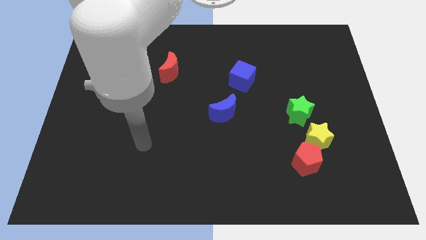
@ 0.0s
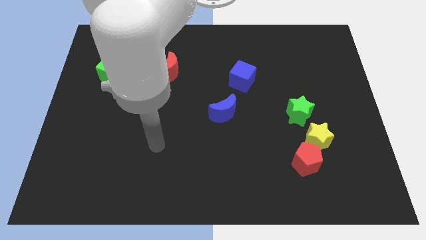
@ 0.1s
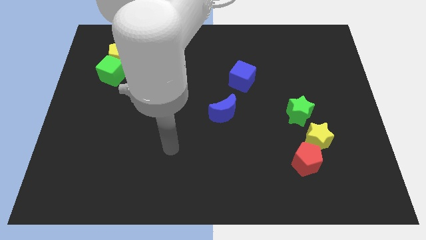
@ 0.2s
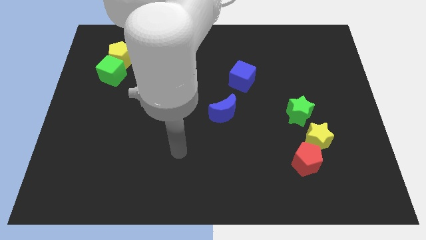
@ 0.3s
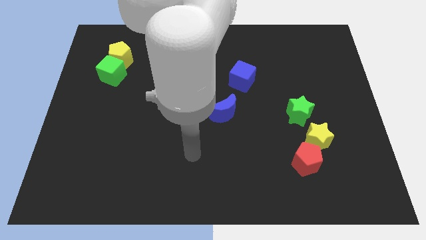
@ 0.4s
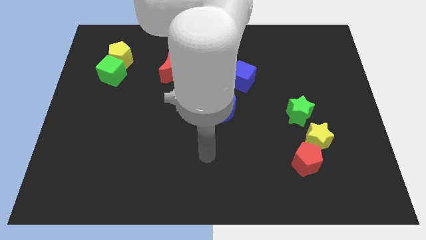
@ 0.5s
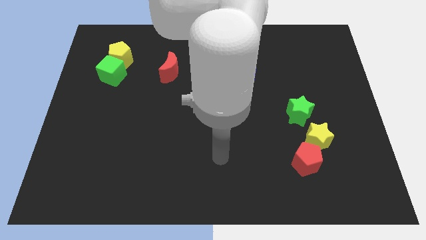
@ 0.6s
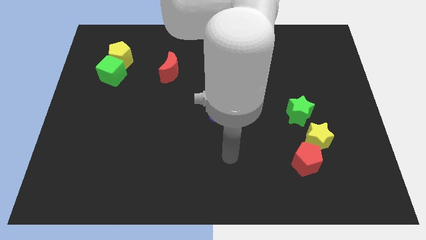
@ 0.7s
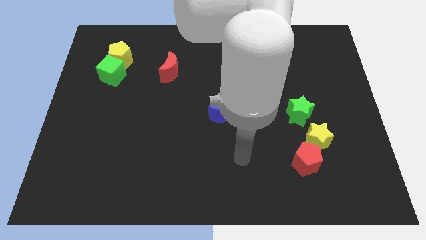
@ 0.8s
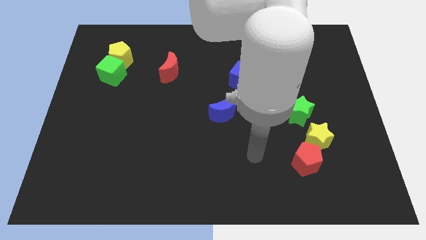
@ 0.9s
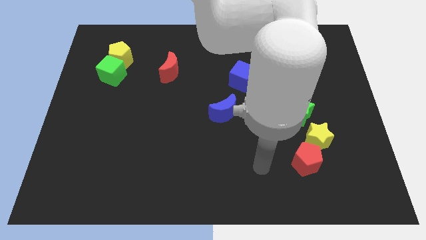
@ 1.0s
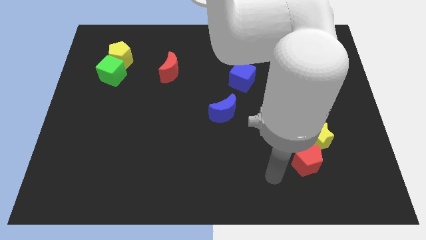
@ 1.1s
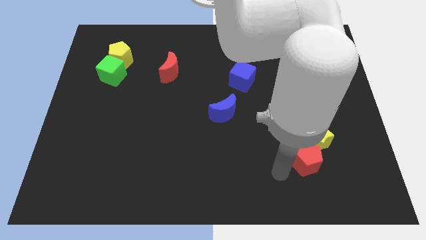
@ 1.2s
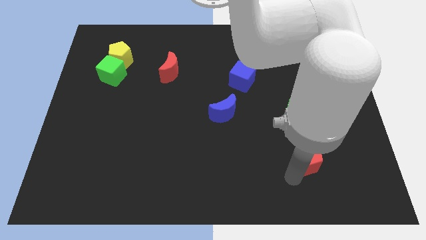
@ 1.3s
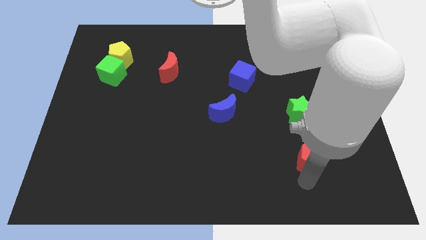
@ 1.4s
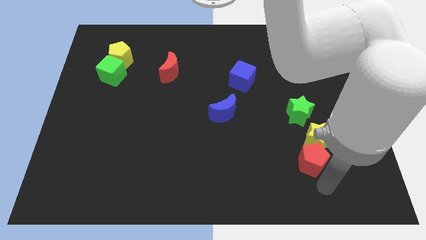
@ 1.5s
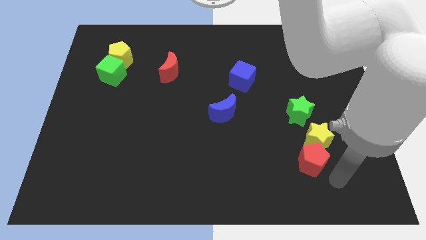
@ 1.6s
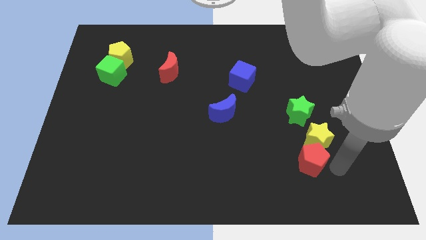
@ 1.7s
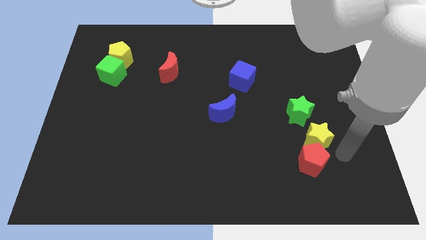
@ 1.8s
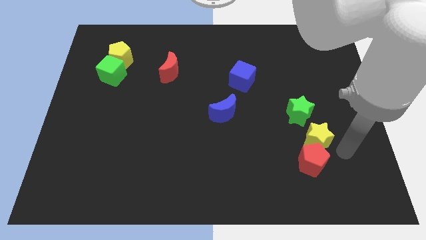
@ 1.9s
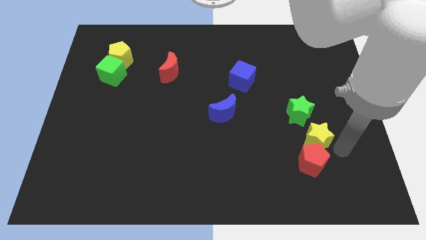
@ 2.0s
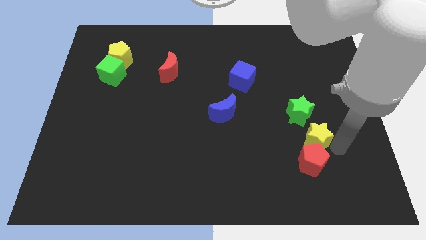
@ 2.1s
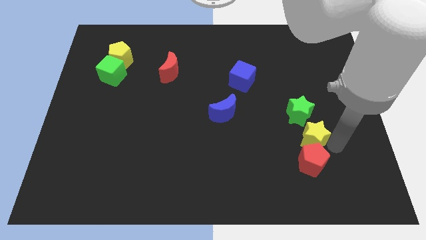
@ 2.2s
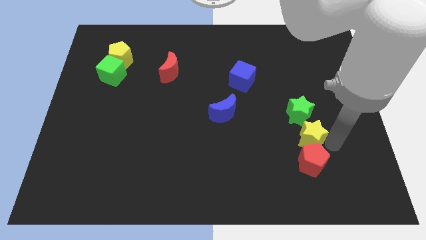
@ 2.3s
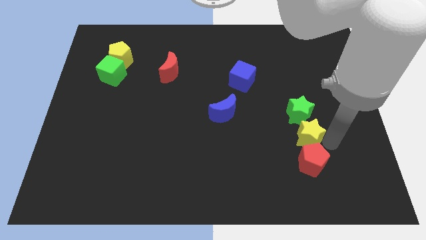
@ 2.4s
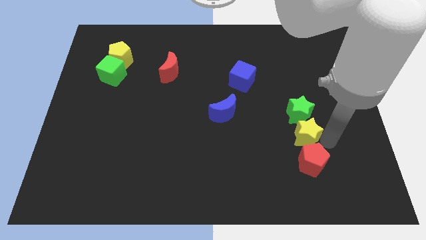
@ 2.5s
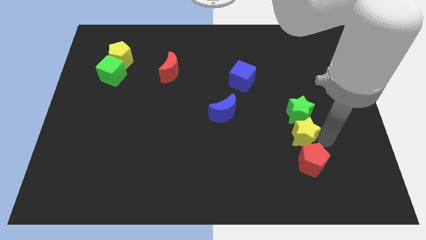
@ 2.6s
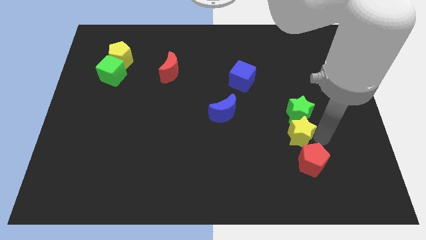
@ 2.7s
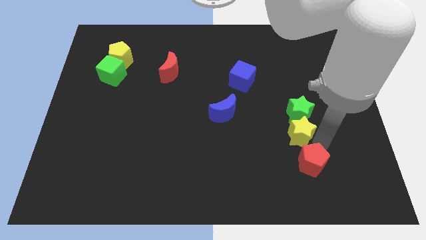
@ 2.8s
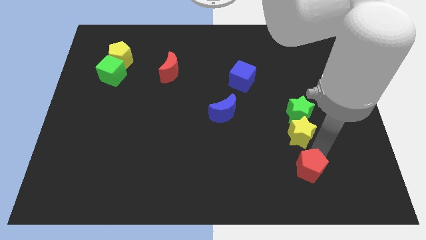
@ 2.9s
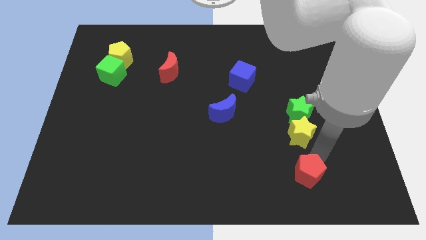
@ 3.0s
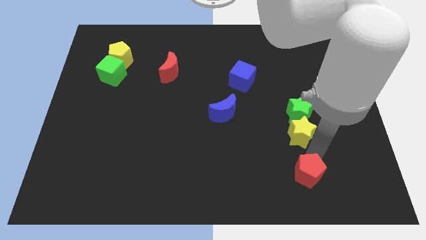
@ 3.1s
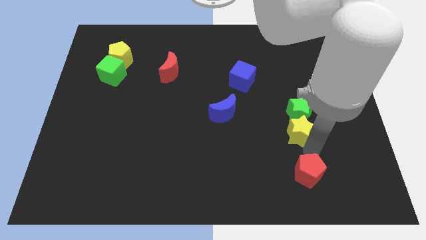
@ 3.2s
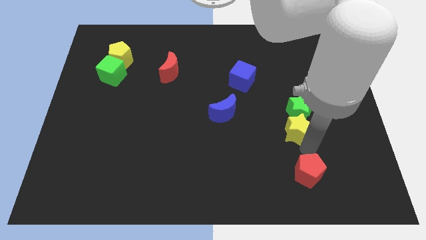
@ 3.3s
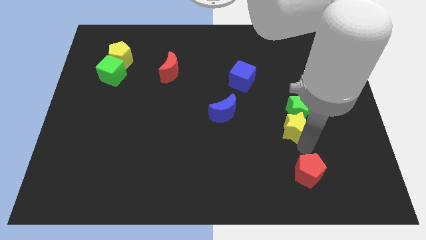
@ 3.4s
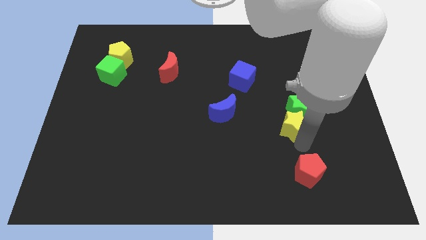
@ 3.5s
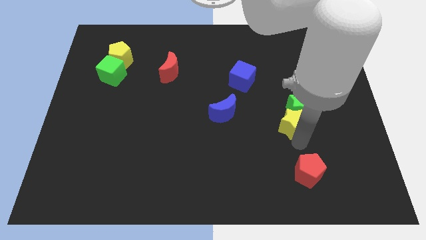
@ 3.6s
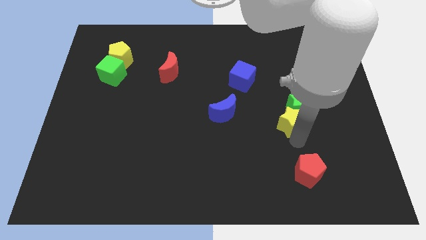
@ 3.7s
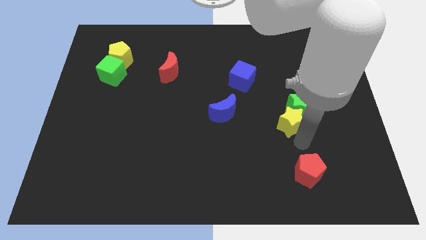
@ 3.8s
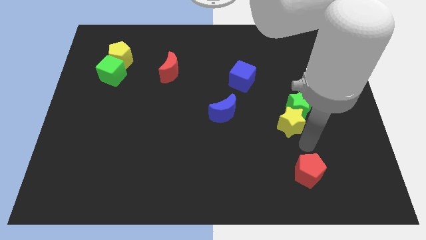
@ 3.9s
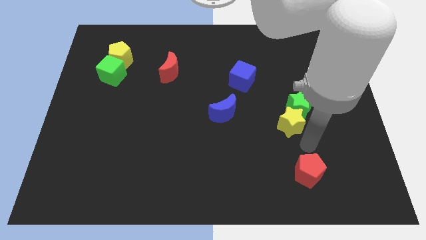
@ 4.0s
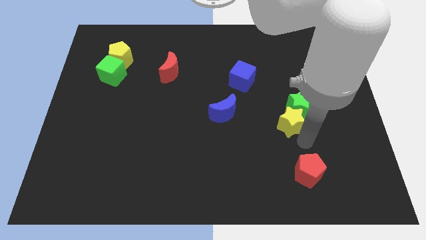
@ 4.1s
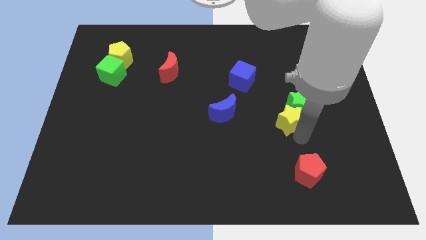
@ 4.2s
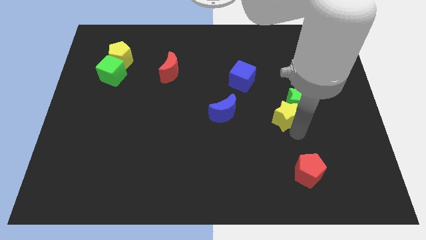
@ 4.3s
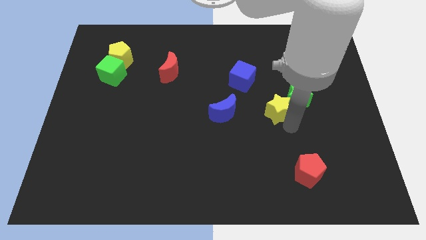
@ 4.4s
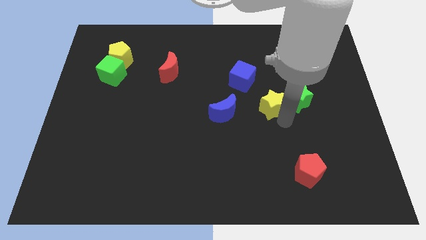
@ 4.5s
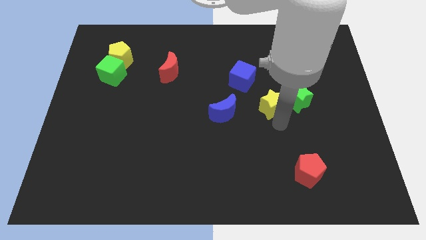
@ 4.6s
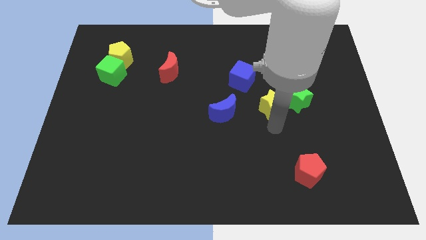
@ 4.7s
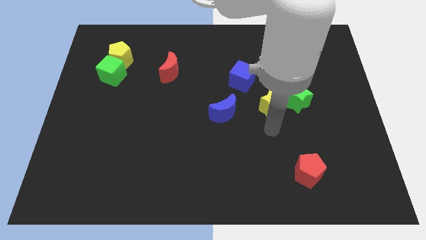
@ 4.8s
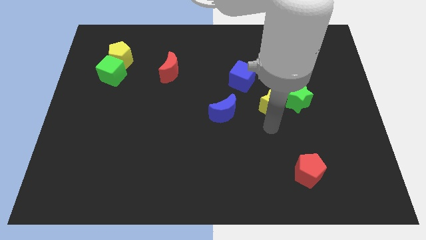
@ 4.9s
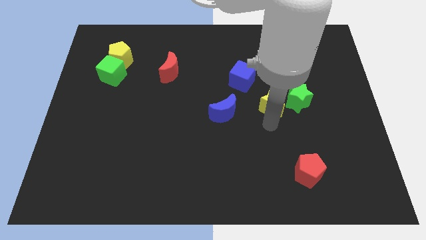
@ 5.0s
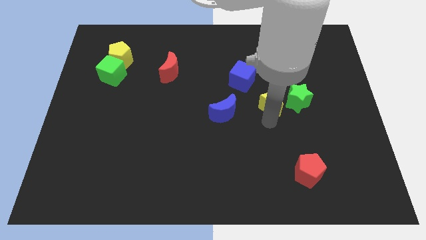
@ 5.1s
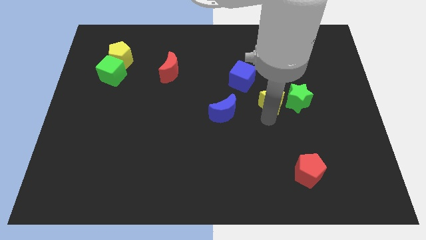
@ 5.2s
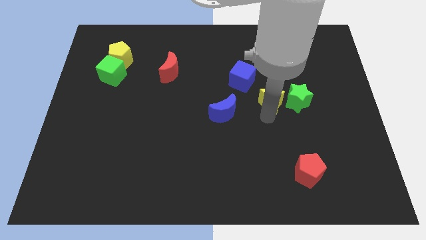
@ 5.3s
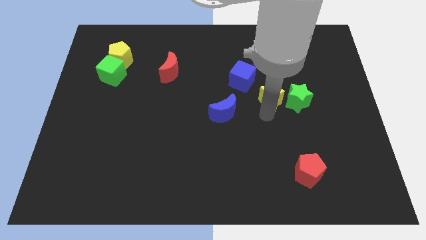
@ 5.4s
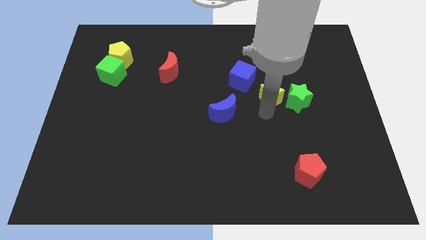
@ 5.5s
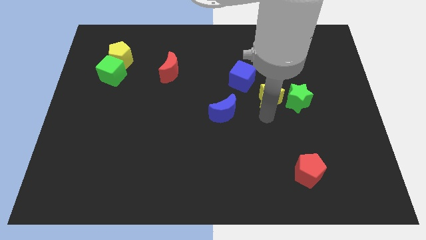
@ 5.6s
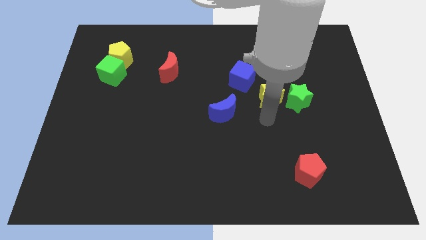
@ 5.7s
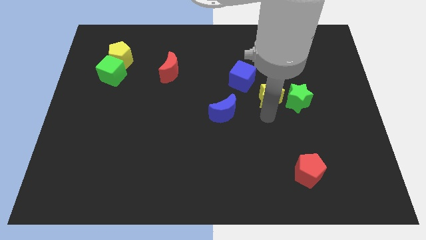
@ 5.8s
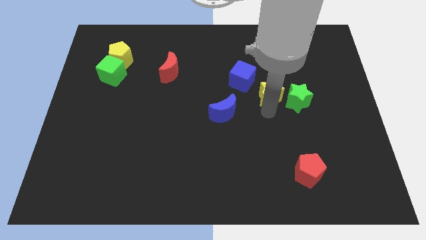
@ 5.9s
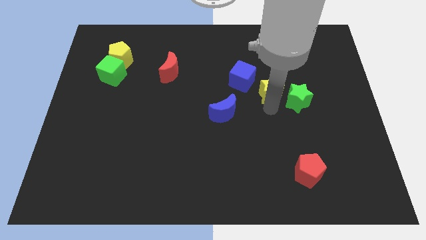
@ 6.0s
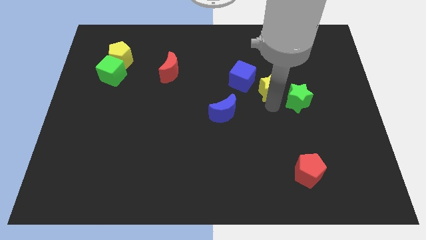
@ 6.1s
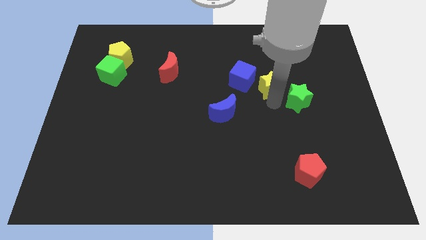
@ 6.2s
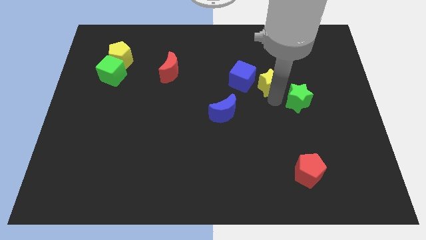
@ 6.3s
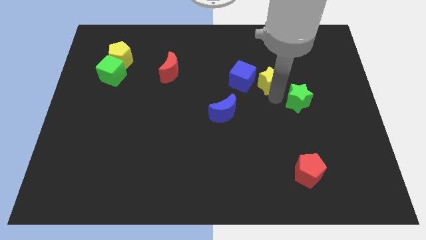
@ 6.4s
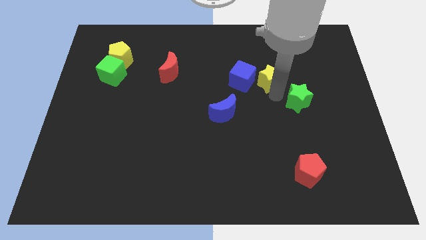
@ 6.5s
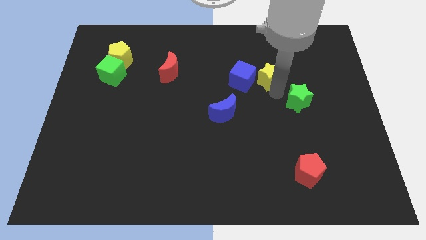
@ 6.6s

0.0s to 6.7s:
push the yellow star to the top right of the blue cube

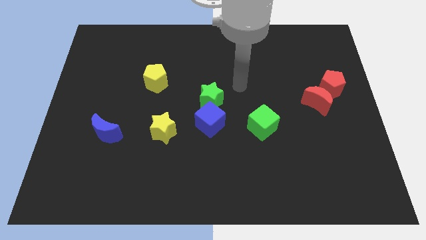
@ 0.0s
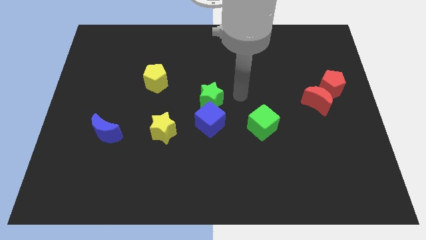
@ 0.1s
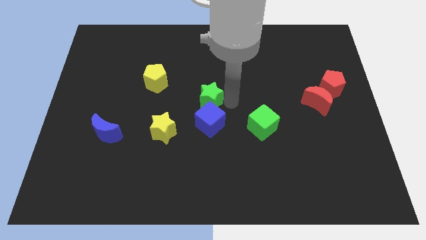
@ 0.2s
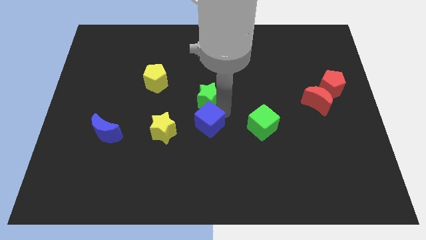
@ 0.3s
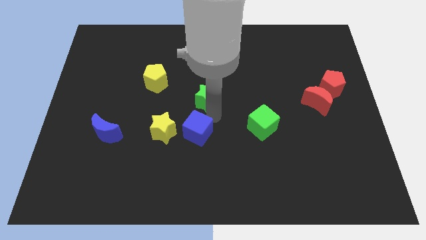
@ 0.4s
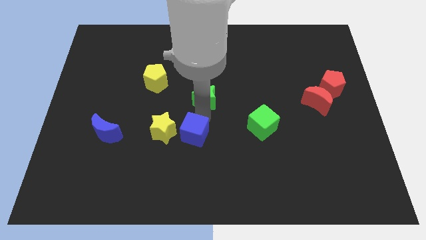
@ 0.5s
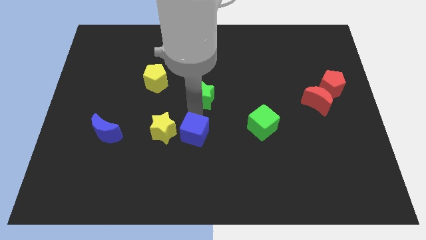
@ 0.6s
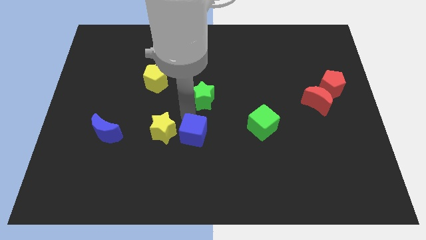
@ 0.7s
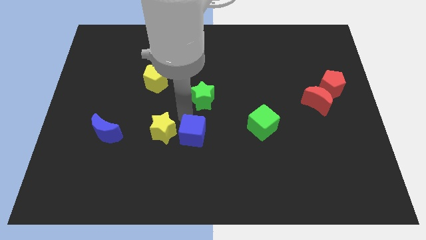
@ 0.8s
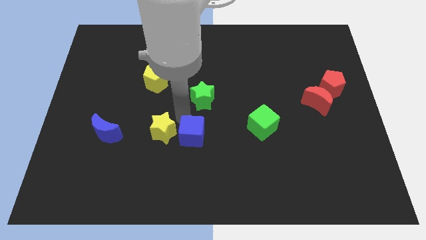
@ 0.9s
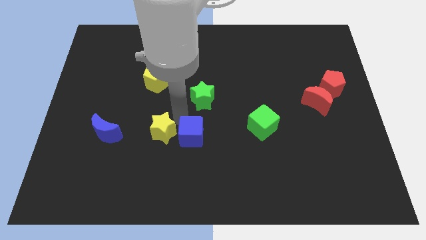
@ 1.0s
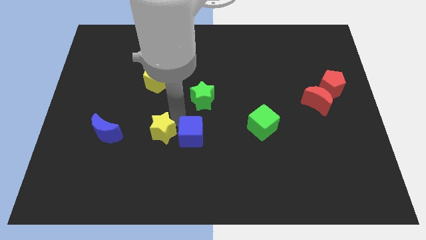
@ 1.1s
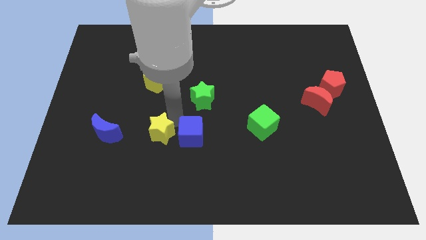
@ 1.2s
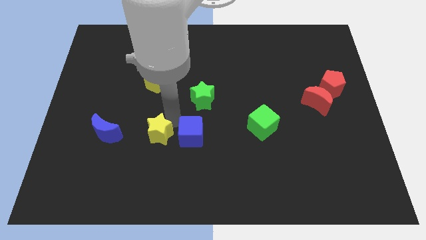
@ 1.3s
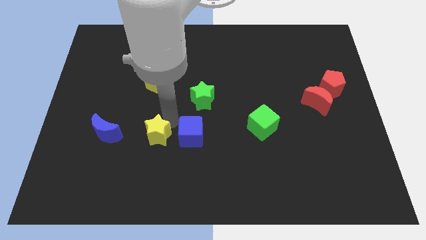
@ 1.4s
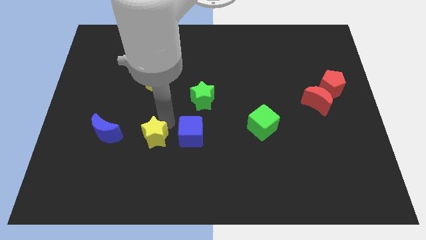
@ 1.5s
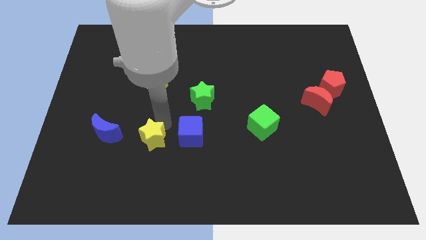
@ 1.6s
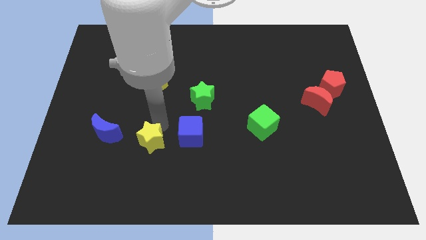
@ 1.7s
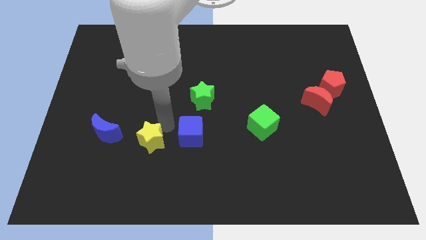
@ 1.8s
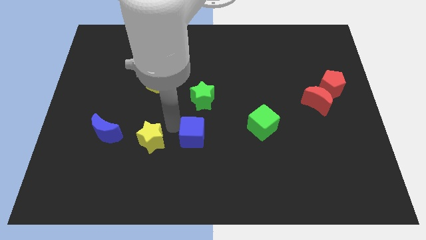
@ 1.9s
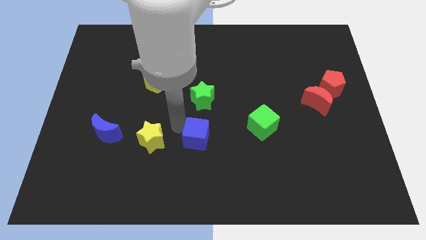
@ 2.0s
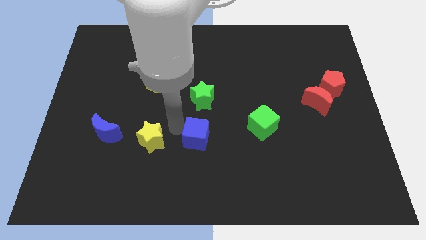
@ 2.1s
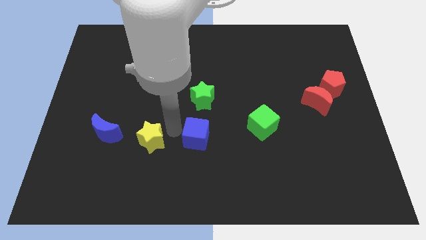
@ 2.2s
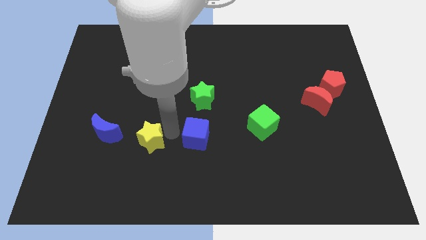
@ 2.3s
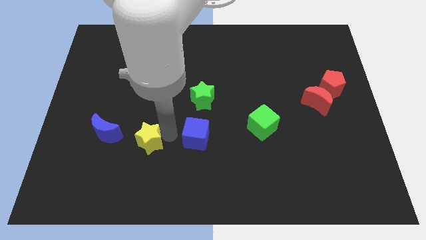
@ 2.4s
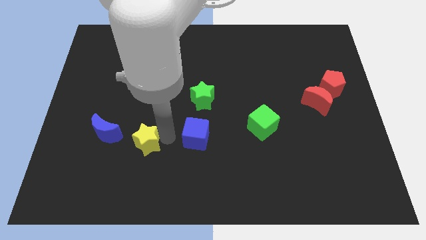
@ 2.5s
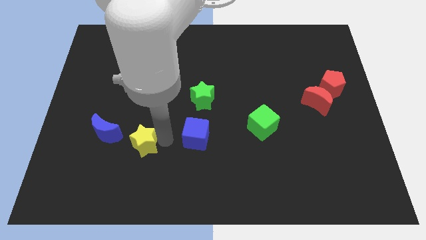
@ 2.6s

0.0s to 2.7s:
push the yellow star to the bottom right of the blue moon
